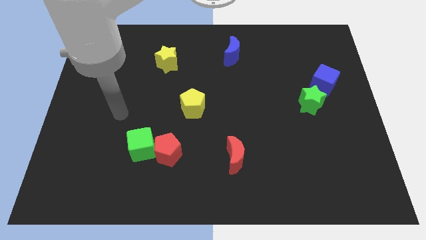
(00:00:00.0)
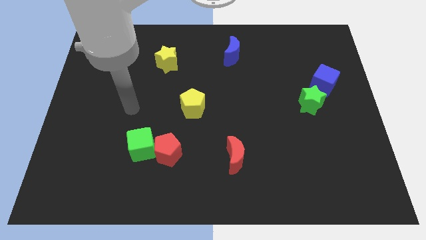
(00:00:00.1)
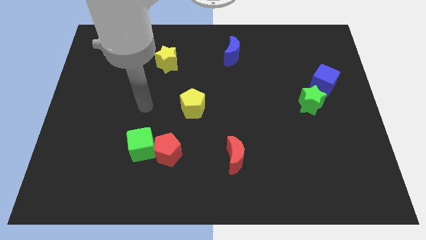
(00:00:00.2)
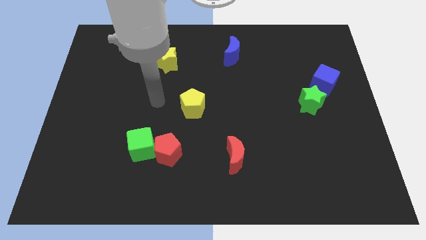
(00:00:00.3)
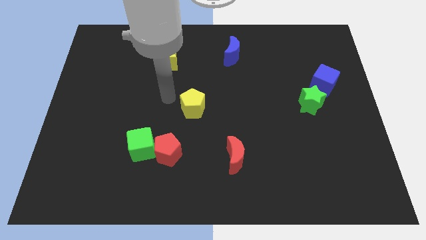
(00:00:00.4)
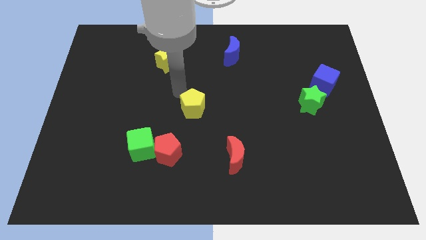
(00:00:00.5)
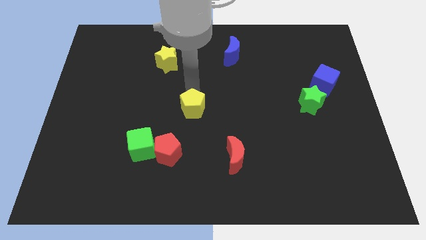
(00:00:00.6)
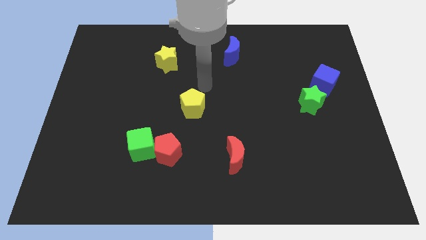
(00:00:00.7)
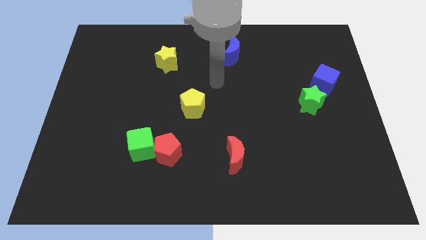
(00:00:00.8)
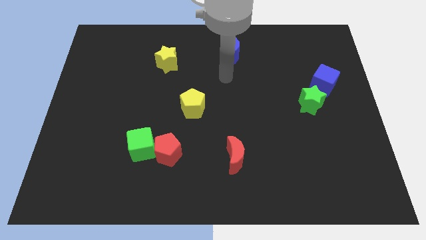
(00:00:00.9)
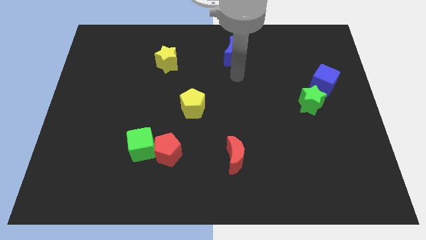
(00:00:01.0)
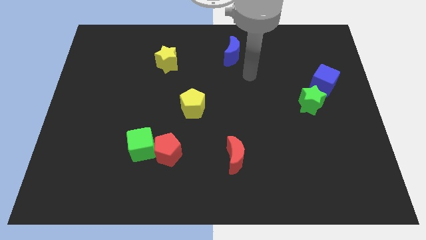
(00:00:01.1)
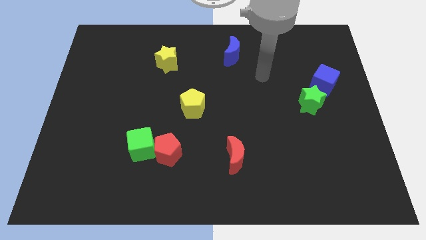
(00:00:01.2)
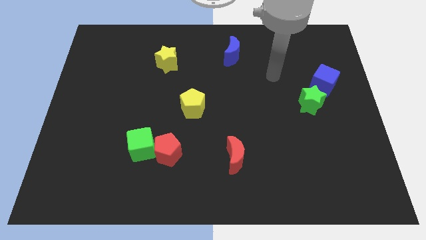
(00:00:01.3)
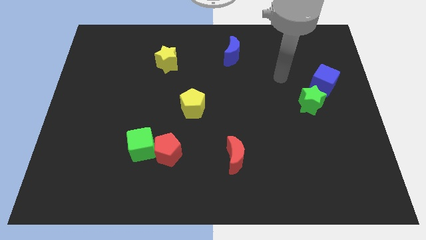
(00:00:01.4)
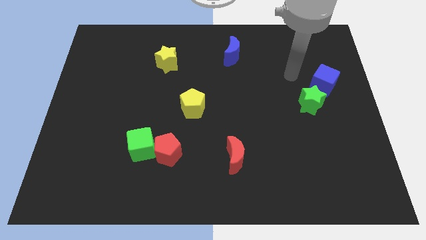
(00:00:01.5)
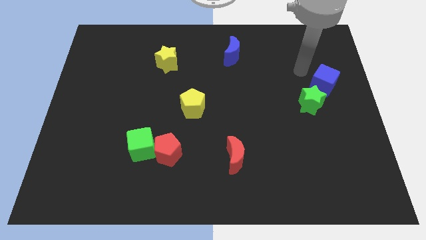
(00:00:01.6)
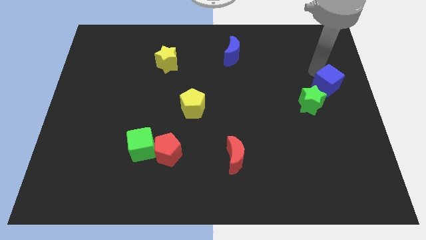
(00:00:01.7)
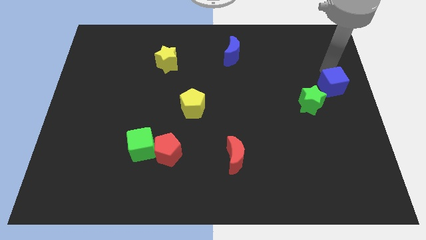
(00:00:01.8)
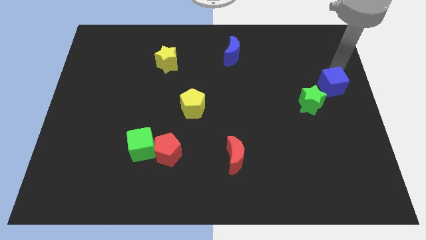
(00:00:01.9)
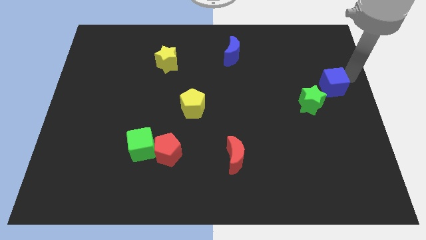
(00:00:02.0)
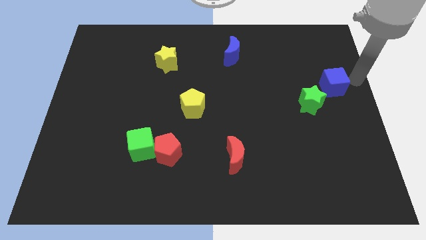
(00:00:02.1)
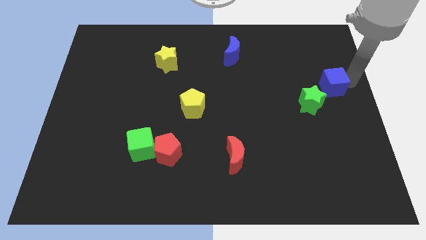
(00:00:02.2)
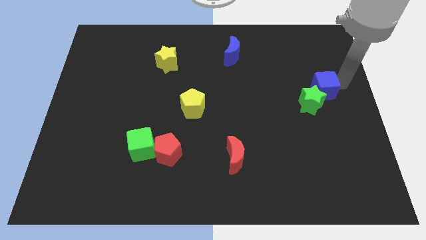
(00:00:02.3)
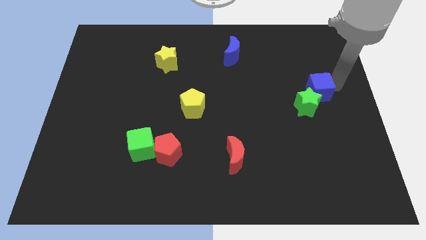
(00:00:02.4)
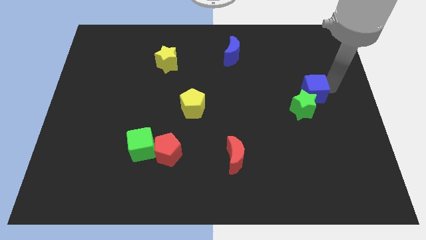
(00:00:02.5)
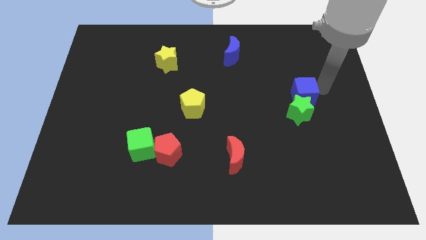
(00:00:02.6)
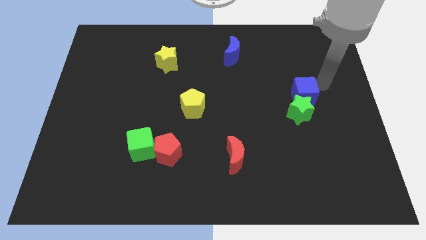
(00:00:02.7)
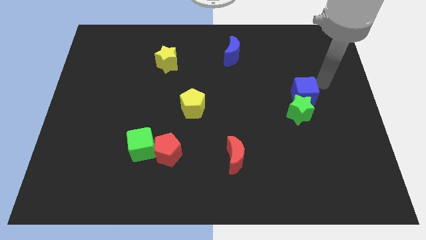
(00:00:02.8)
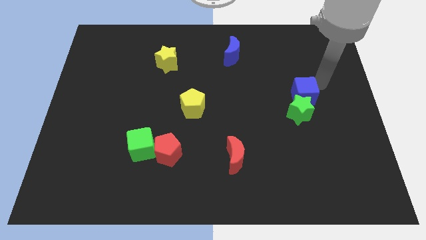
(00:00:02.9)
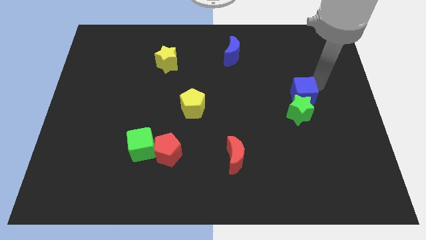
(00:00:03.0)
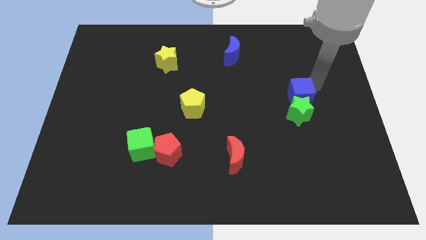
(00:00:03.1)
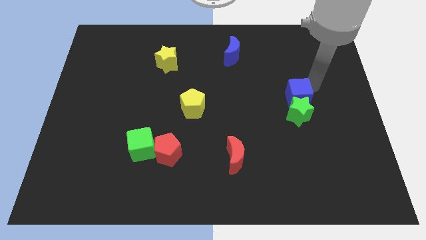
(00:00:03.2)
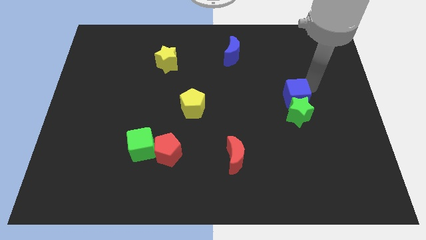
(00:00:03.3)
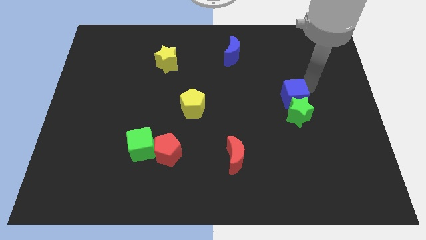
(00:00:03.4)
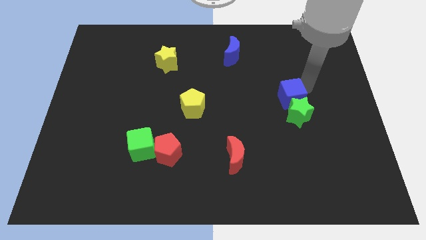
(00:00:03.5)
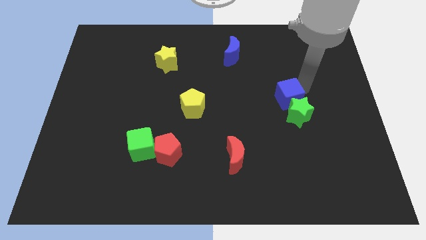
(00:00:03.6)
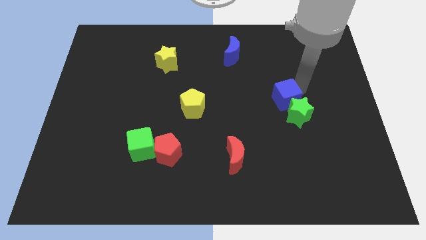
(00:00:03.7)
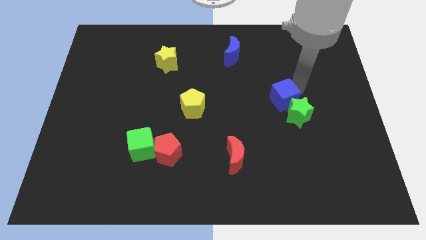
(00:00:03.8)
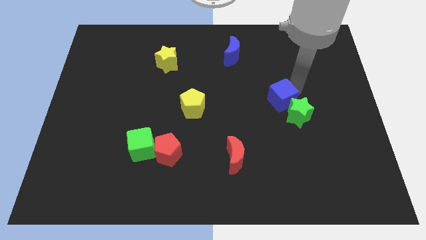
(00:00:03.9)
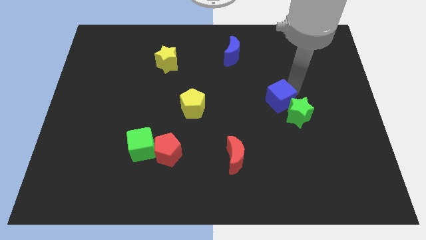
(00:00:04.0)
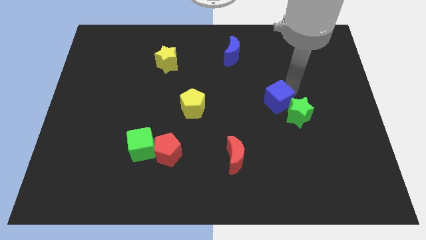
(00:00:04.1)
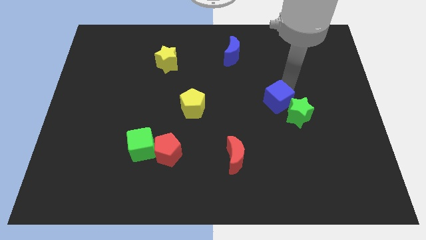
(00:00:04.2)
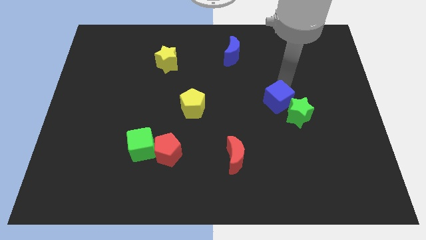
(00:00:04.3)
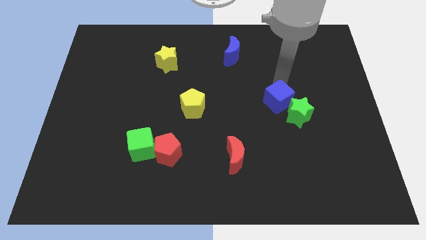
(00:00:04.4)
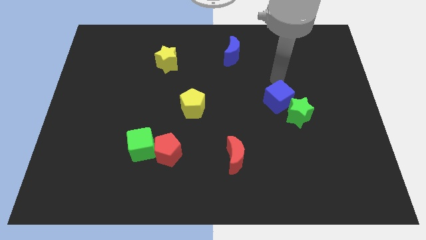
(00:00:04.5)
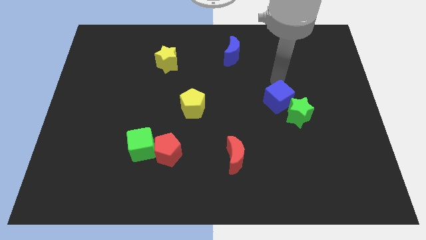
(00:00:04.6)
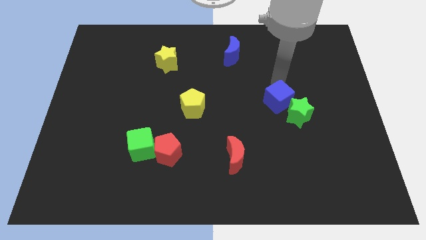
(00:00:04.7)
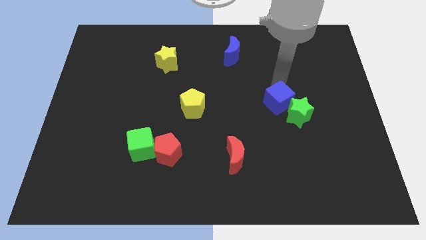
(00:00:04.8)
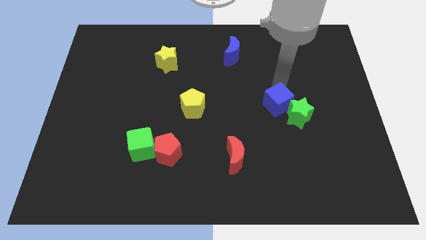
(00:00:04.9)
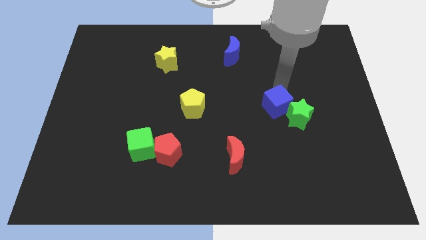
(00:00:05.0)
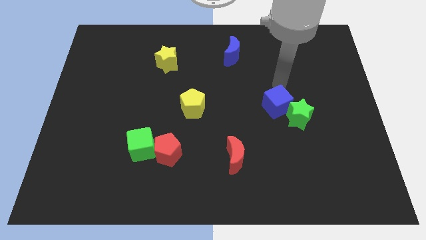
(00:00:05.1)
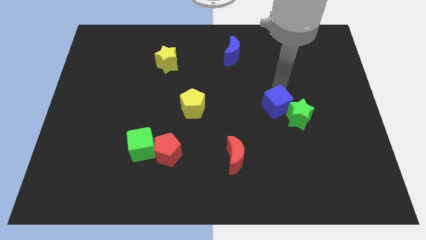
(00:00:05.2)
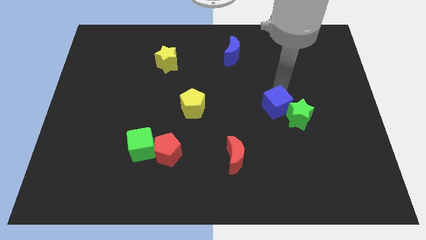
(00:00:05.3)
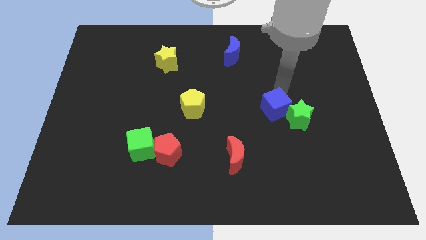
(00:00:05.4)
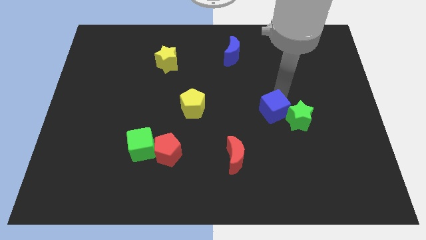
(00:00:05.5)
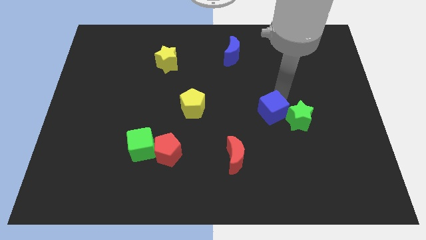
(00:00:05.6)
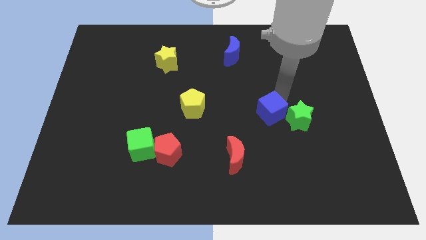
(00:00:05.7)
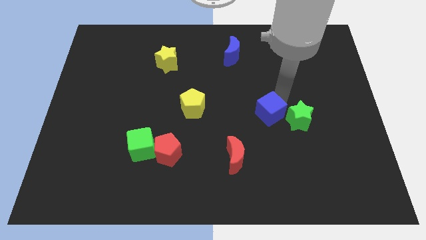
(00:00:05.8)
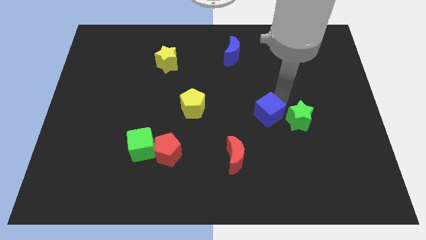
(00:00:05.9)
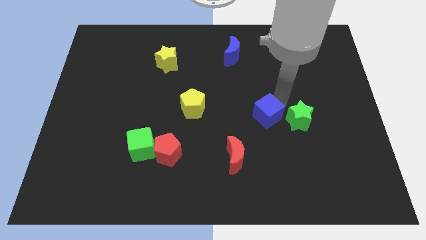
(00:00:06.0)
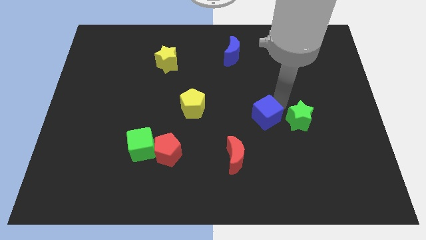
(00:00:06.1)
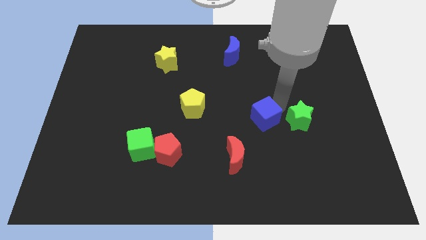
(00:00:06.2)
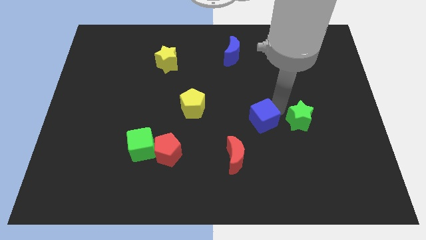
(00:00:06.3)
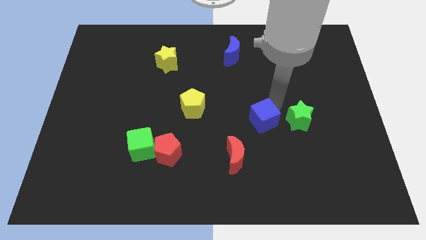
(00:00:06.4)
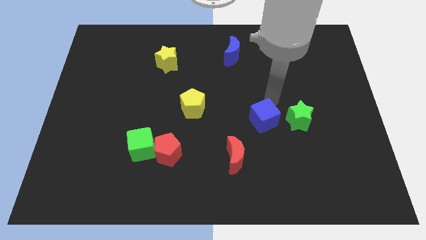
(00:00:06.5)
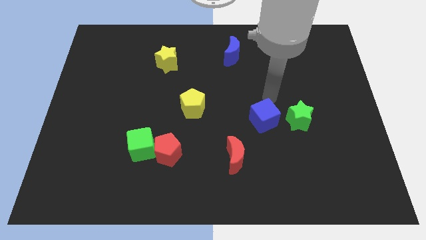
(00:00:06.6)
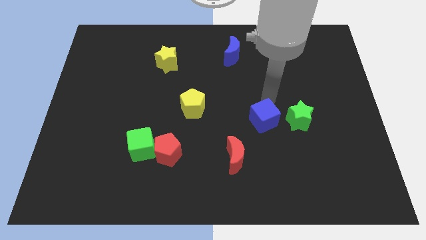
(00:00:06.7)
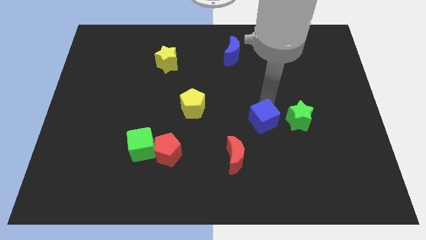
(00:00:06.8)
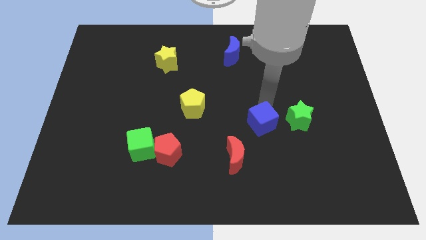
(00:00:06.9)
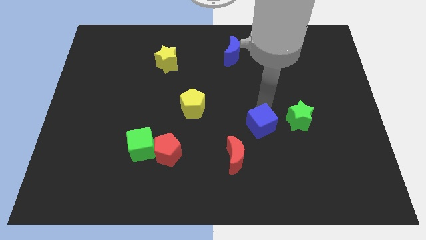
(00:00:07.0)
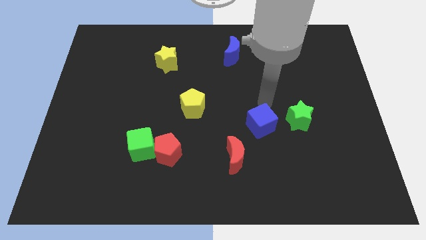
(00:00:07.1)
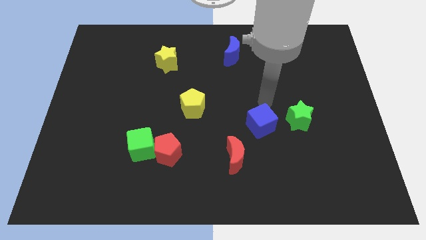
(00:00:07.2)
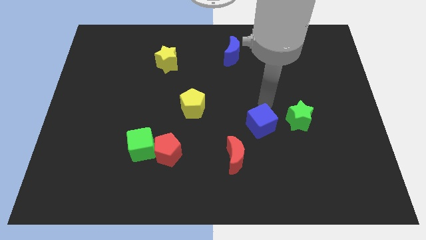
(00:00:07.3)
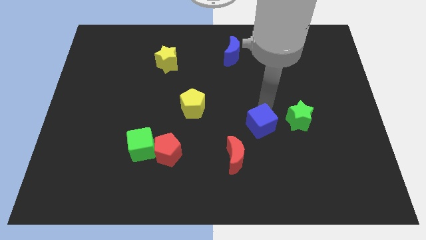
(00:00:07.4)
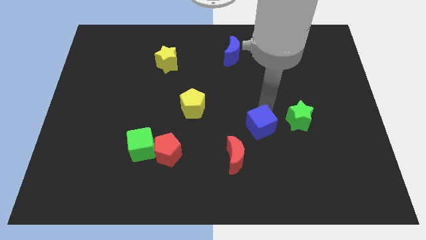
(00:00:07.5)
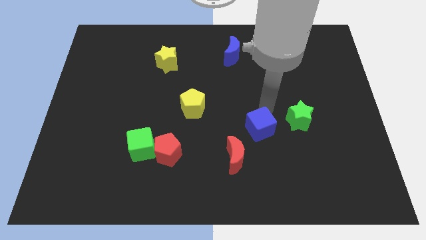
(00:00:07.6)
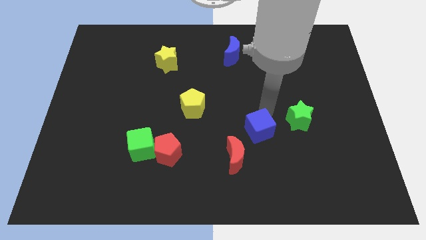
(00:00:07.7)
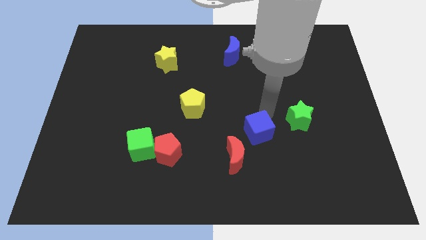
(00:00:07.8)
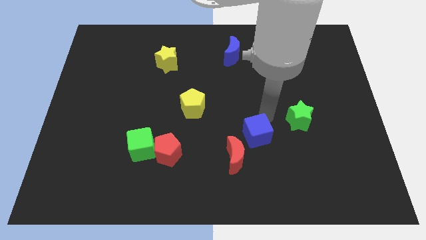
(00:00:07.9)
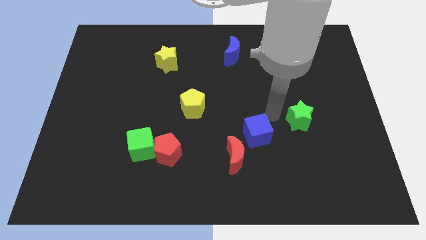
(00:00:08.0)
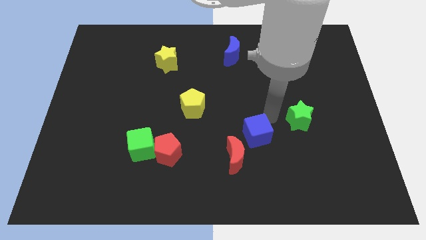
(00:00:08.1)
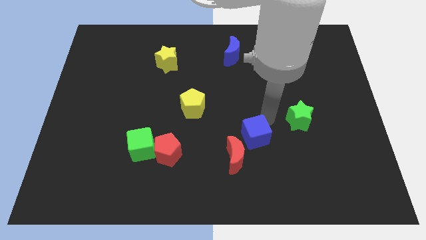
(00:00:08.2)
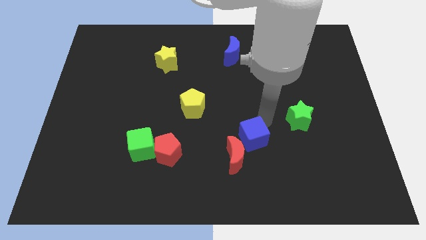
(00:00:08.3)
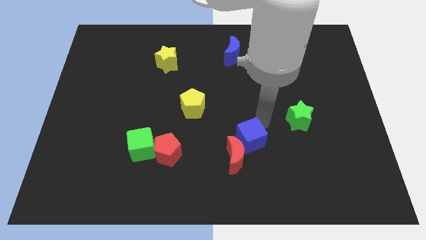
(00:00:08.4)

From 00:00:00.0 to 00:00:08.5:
slide the blue cube close to the red moon
